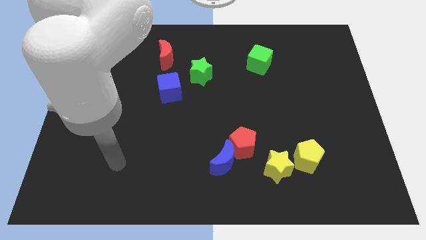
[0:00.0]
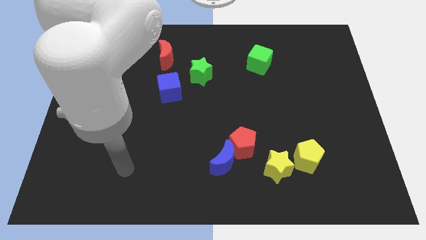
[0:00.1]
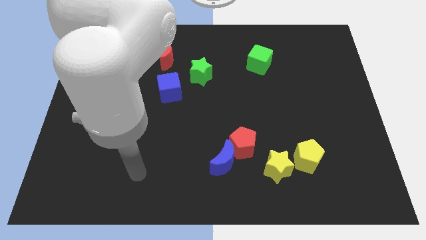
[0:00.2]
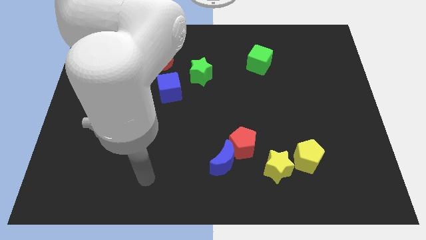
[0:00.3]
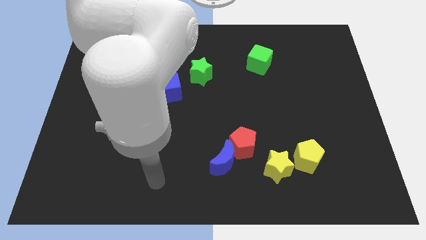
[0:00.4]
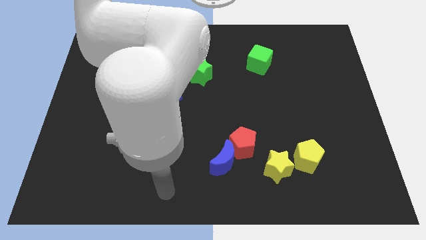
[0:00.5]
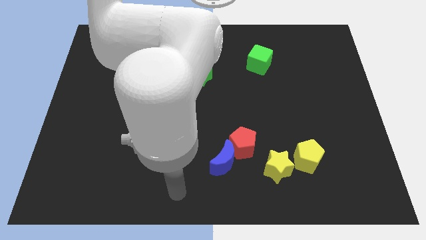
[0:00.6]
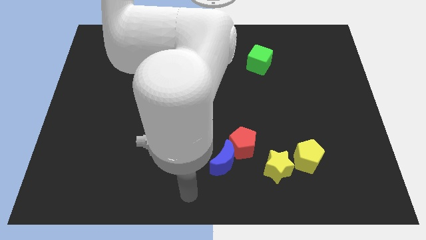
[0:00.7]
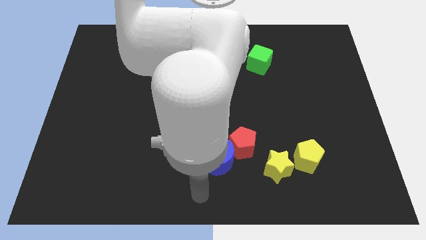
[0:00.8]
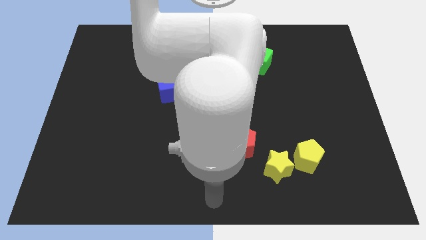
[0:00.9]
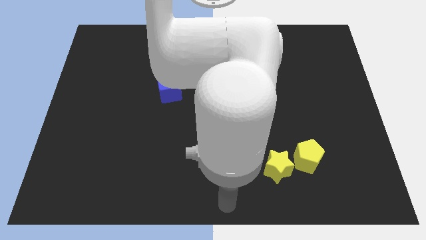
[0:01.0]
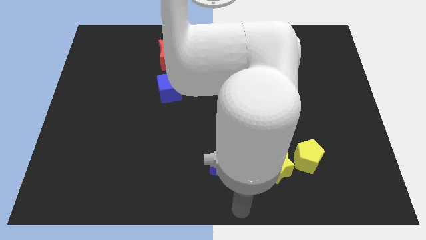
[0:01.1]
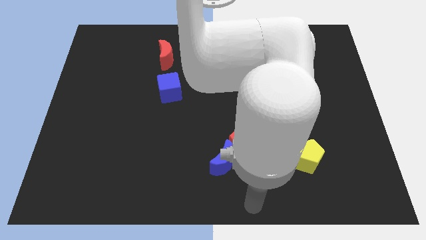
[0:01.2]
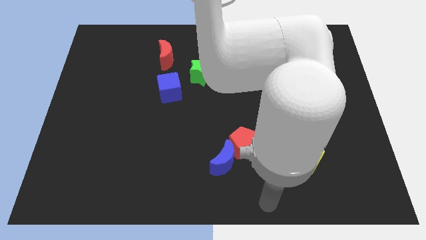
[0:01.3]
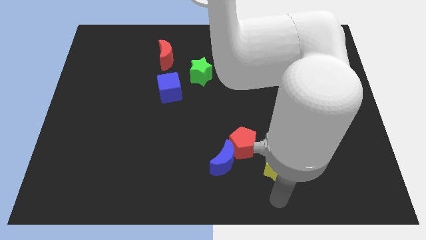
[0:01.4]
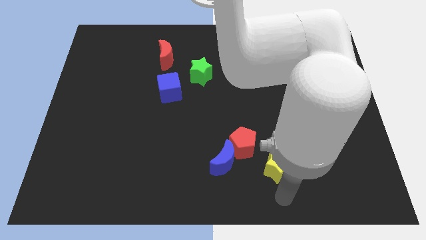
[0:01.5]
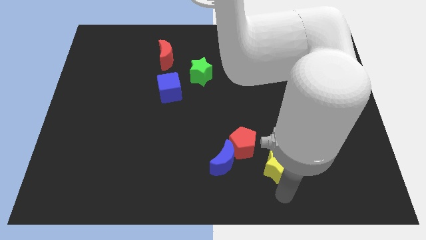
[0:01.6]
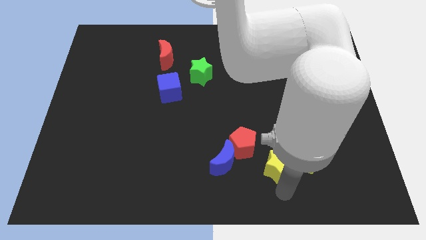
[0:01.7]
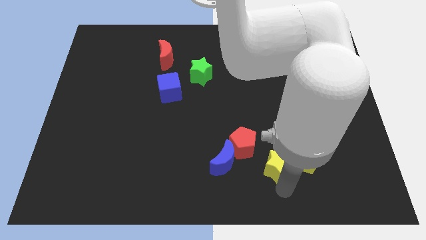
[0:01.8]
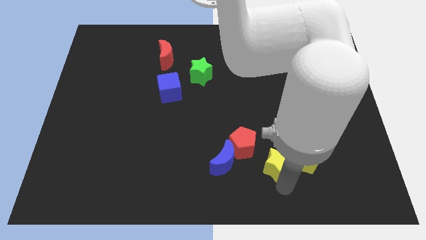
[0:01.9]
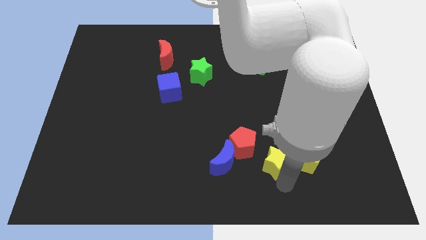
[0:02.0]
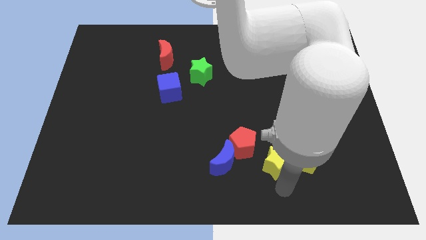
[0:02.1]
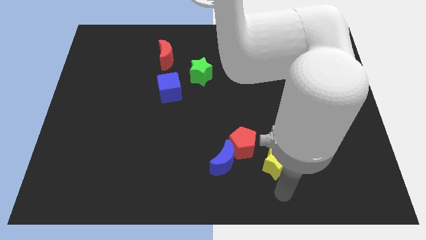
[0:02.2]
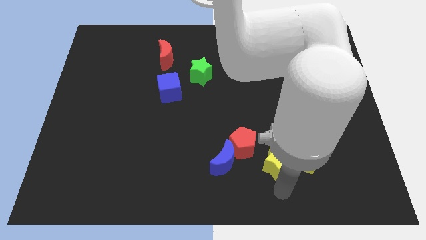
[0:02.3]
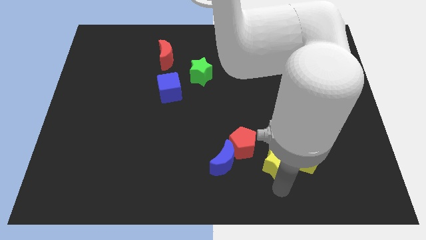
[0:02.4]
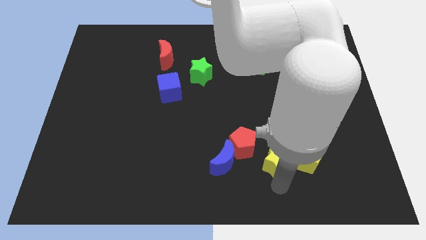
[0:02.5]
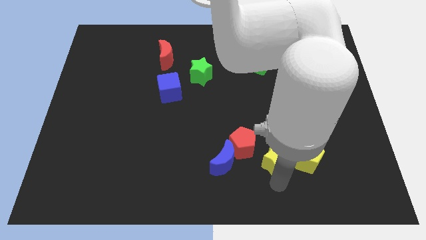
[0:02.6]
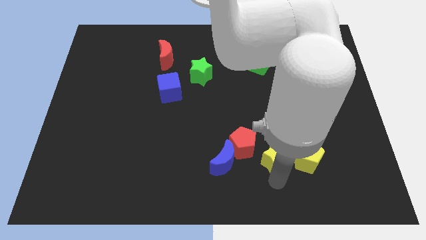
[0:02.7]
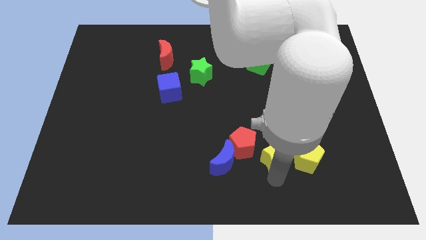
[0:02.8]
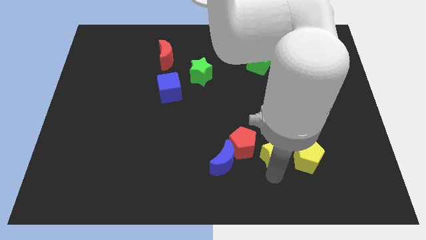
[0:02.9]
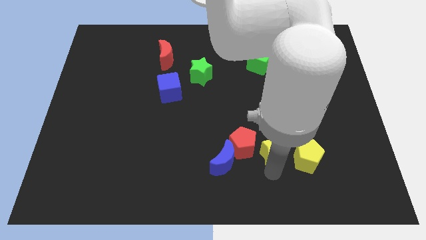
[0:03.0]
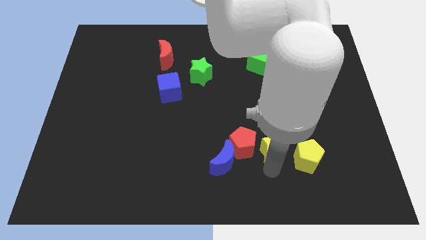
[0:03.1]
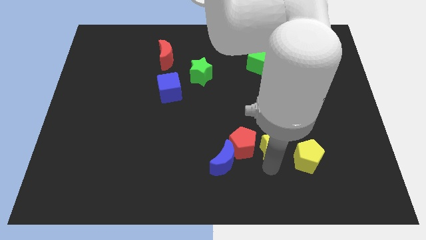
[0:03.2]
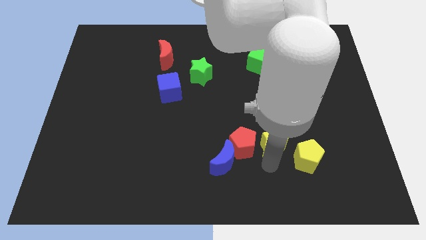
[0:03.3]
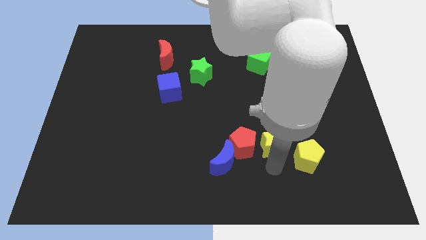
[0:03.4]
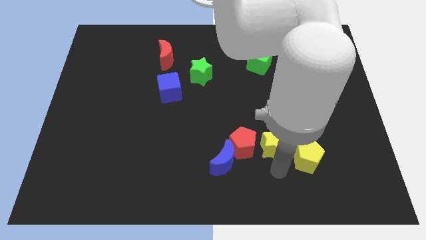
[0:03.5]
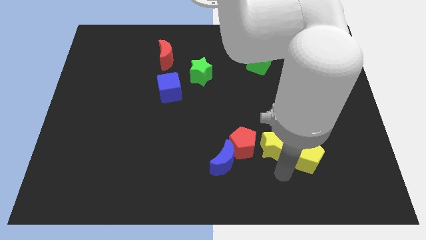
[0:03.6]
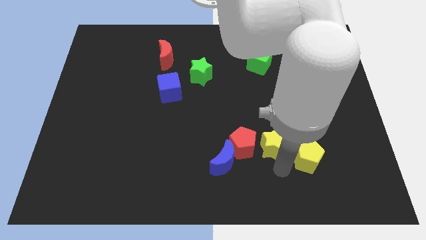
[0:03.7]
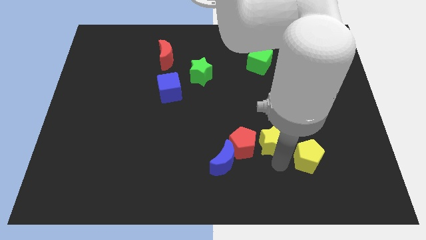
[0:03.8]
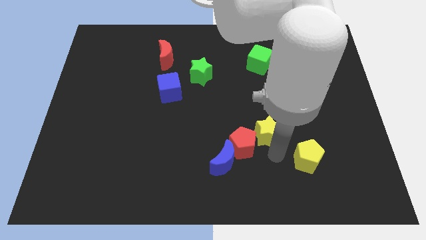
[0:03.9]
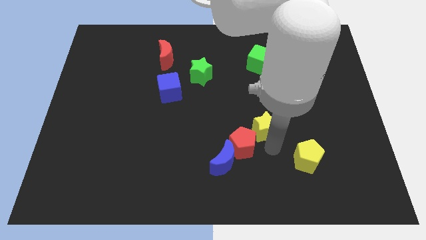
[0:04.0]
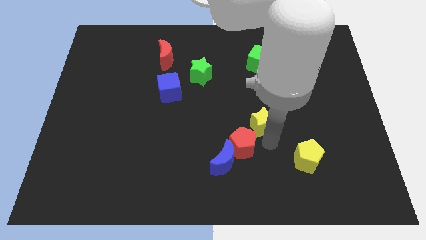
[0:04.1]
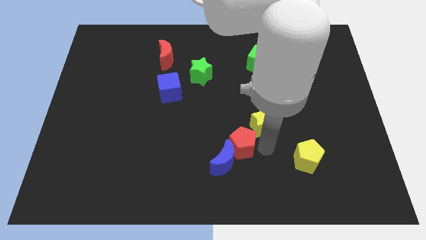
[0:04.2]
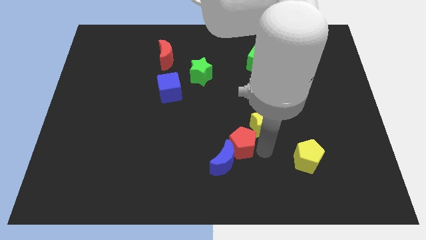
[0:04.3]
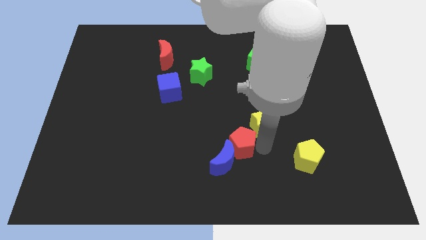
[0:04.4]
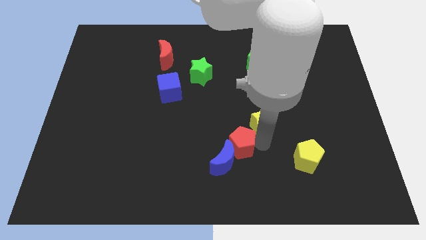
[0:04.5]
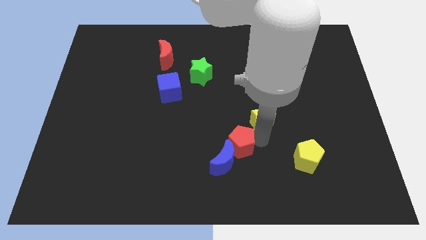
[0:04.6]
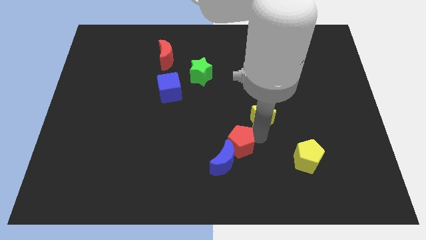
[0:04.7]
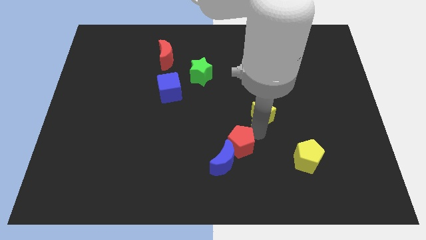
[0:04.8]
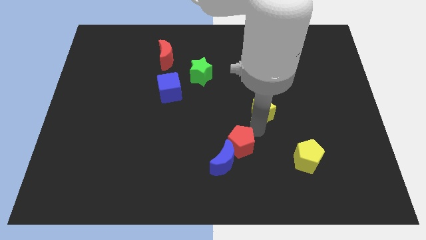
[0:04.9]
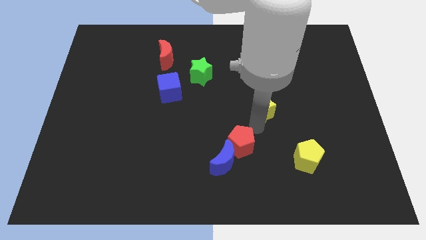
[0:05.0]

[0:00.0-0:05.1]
put the yellow star below the green cube

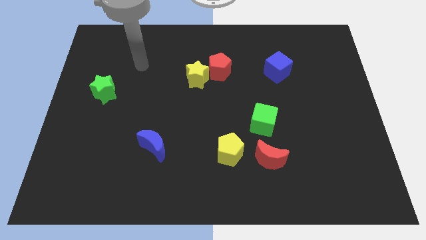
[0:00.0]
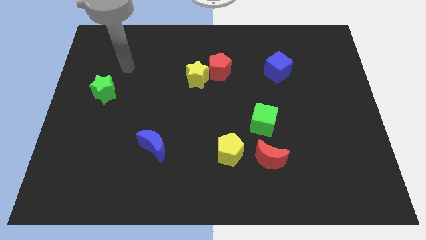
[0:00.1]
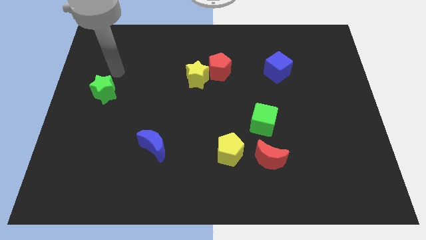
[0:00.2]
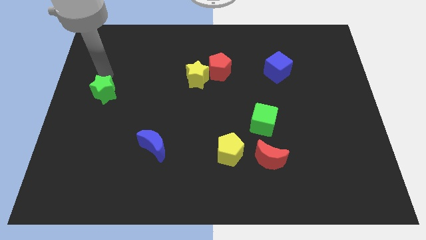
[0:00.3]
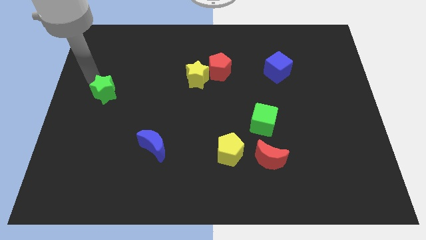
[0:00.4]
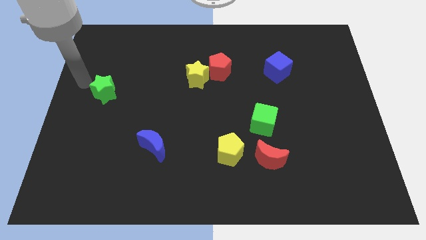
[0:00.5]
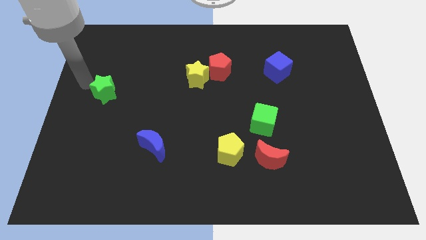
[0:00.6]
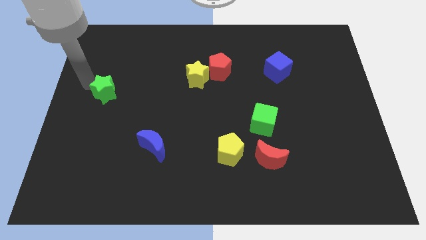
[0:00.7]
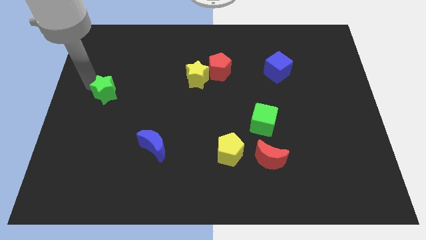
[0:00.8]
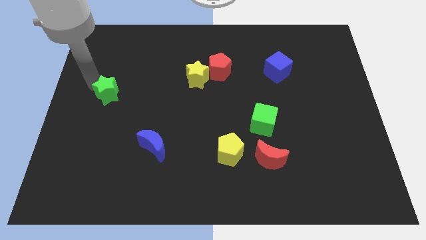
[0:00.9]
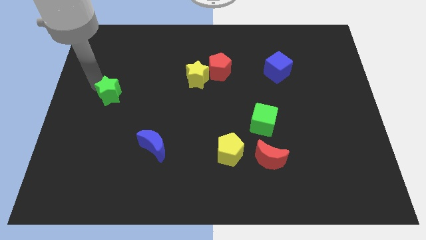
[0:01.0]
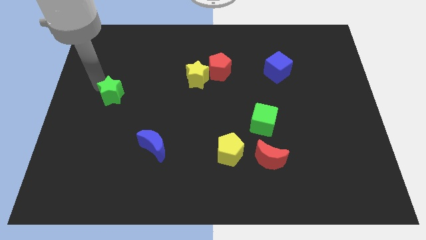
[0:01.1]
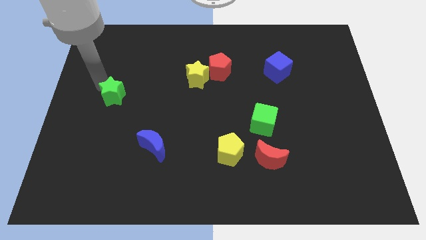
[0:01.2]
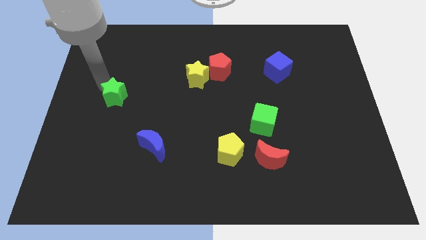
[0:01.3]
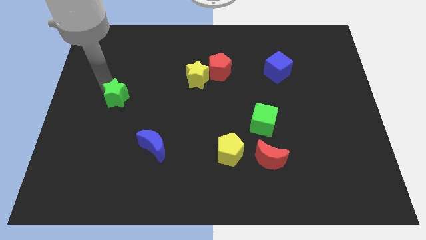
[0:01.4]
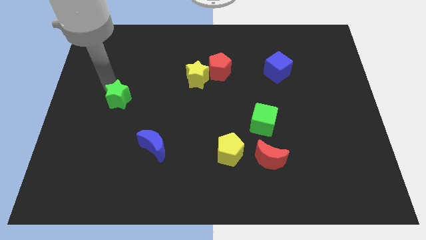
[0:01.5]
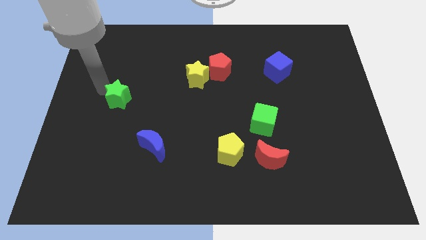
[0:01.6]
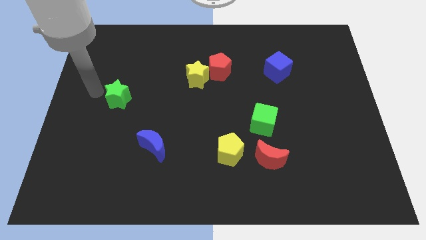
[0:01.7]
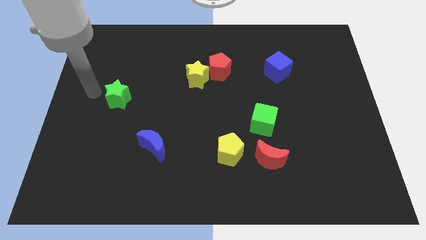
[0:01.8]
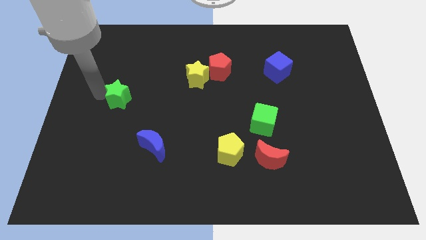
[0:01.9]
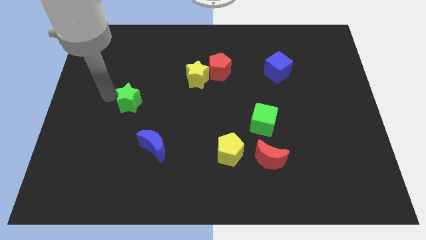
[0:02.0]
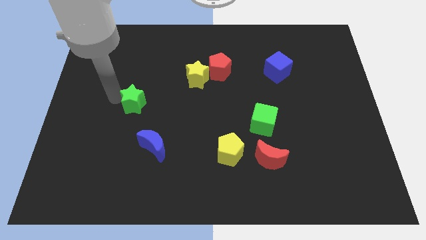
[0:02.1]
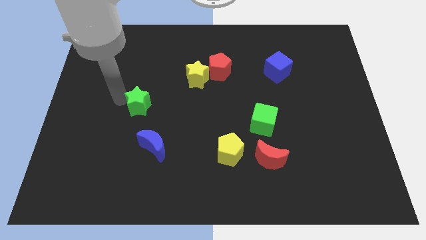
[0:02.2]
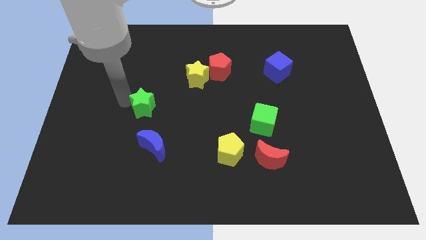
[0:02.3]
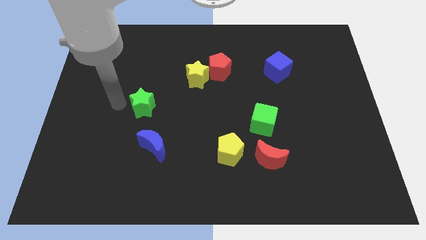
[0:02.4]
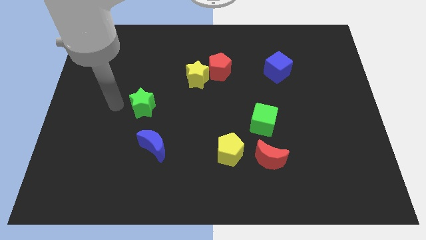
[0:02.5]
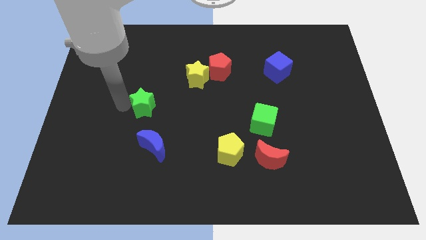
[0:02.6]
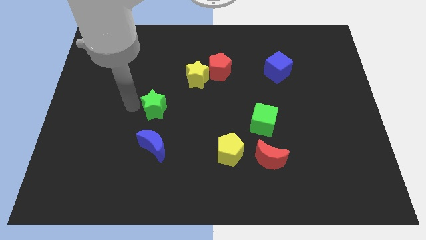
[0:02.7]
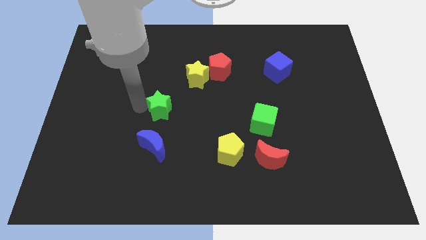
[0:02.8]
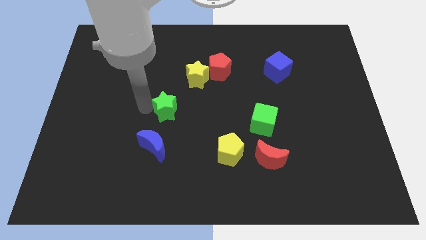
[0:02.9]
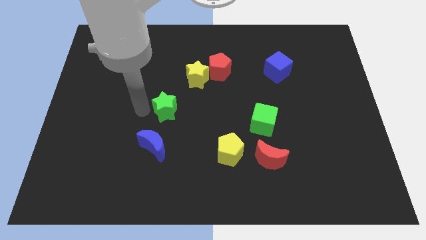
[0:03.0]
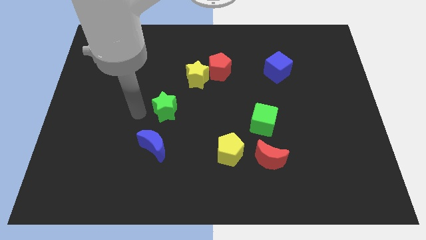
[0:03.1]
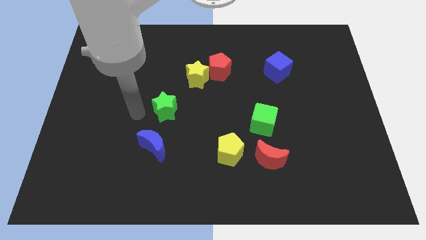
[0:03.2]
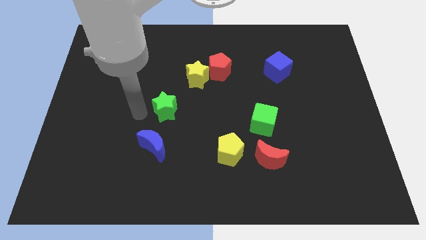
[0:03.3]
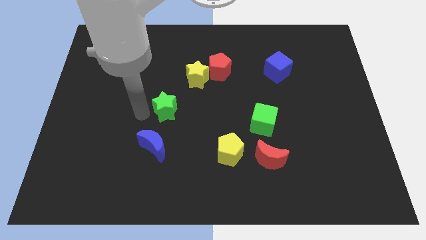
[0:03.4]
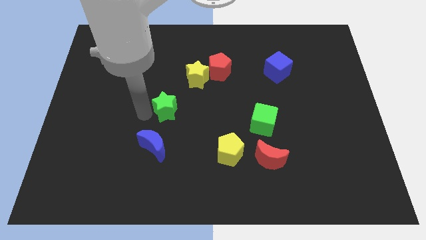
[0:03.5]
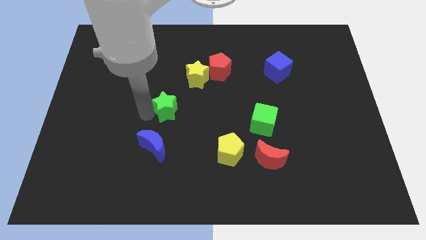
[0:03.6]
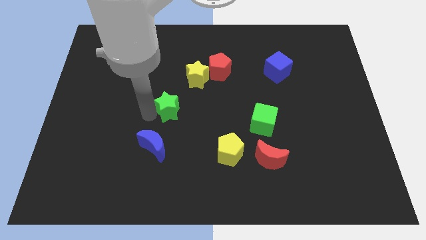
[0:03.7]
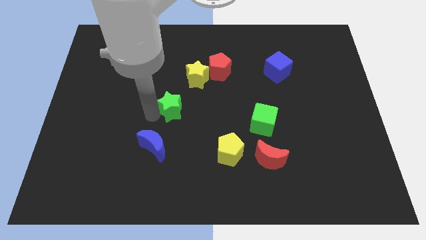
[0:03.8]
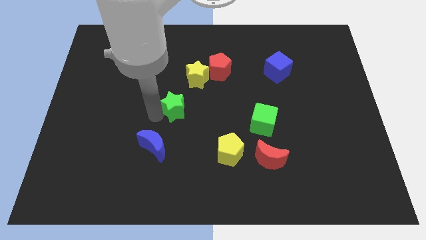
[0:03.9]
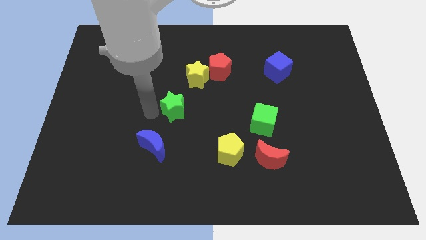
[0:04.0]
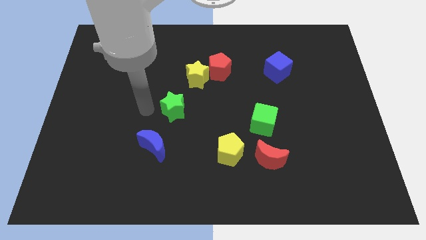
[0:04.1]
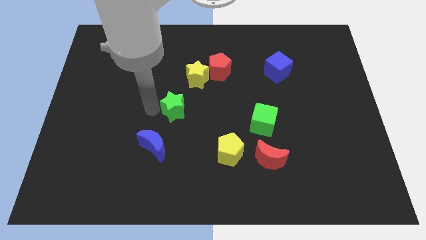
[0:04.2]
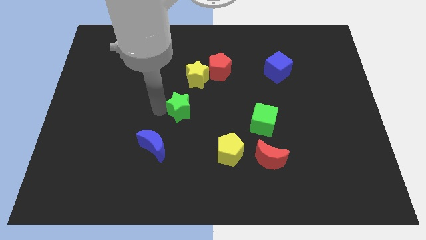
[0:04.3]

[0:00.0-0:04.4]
push the green star to the bottom of the yellow star
